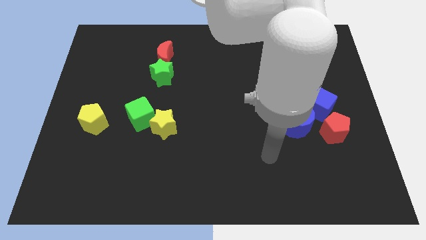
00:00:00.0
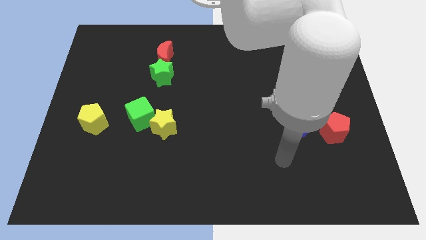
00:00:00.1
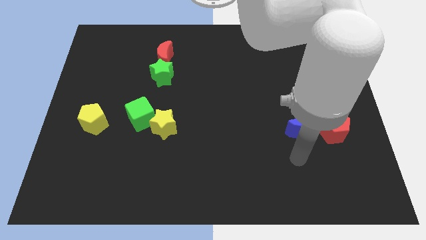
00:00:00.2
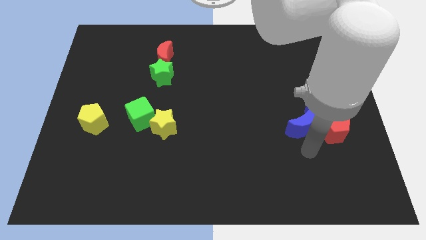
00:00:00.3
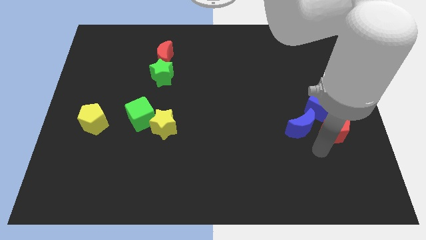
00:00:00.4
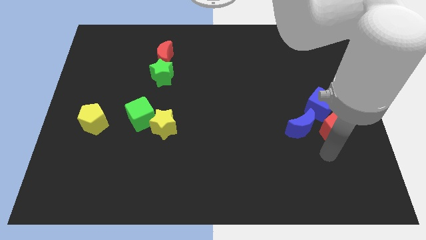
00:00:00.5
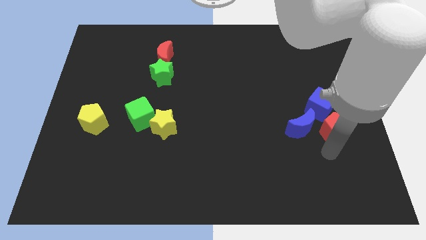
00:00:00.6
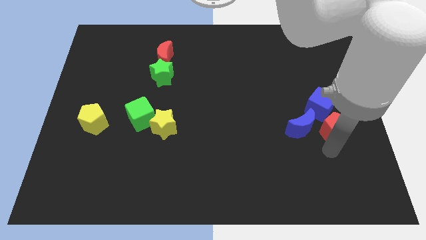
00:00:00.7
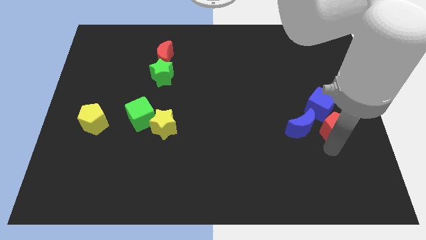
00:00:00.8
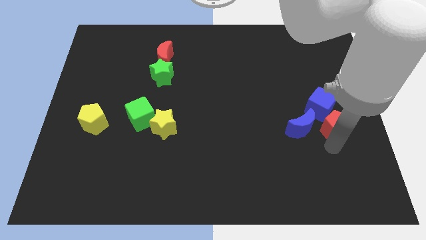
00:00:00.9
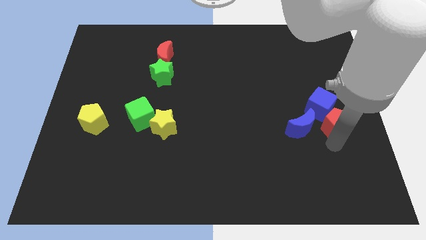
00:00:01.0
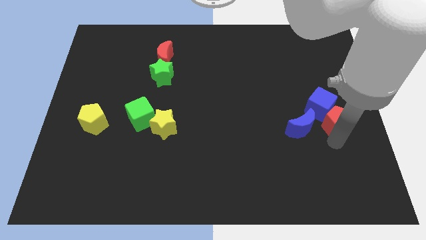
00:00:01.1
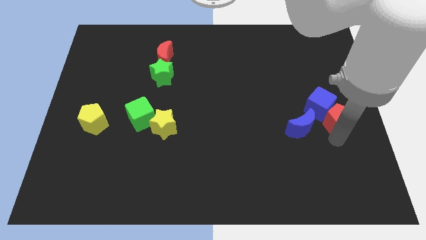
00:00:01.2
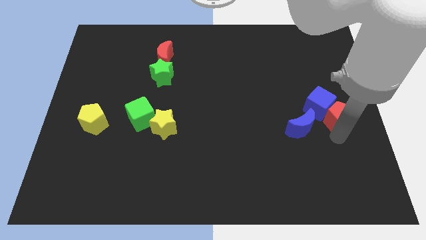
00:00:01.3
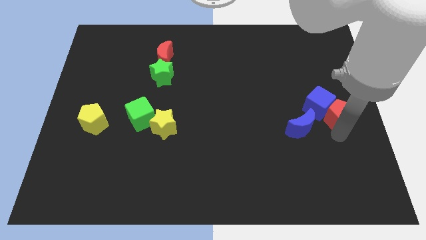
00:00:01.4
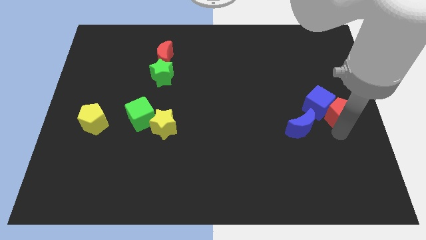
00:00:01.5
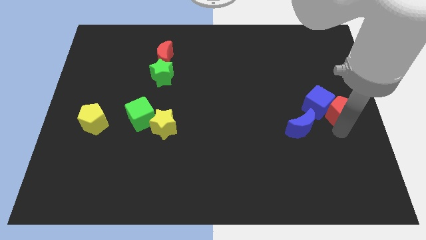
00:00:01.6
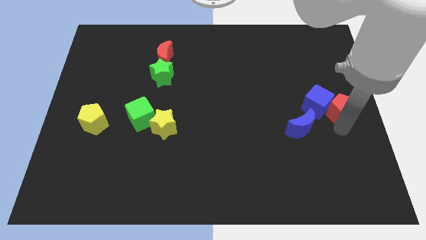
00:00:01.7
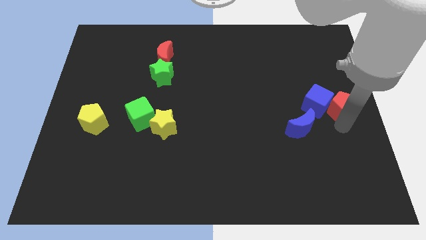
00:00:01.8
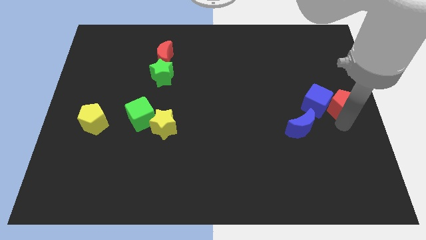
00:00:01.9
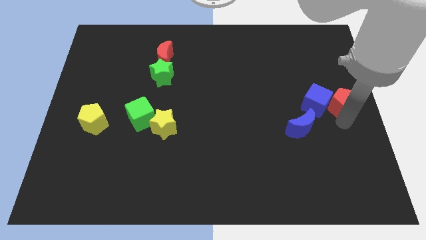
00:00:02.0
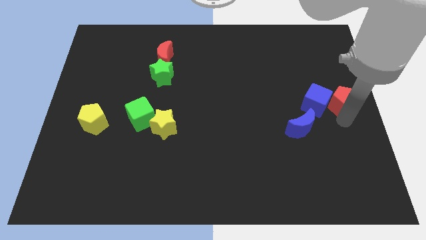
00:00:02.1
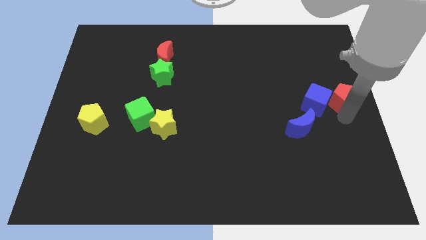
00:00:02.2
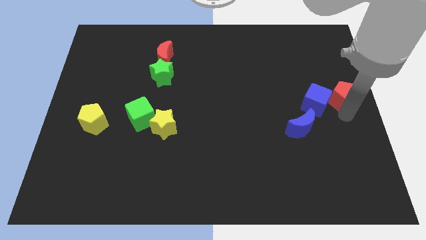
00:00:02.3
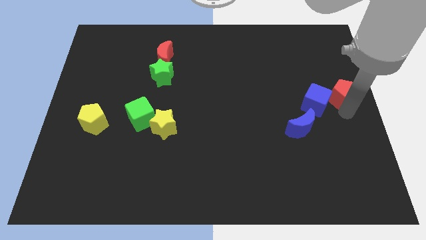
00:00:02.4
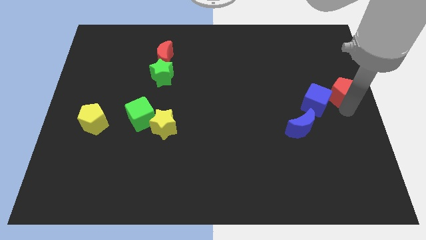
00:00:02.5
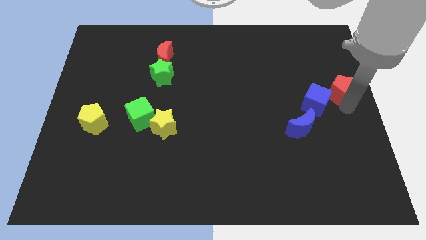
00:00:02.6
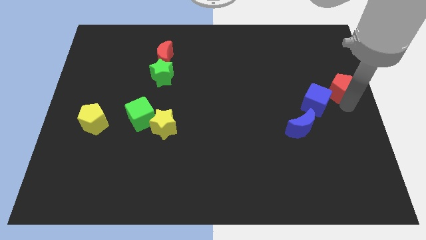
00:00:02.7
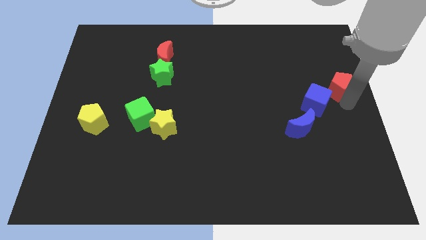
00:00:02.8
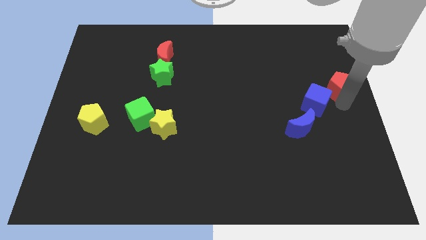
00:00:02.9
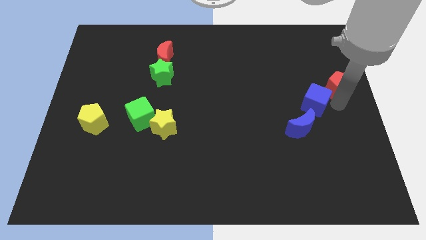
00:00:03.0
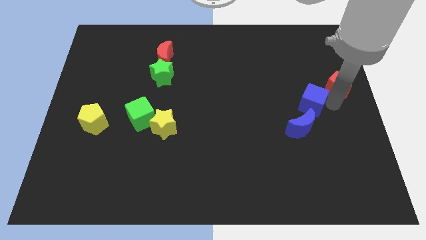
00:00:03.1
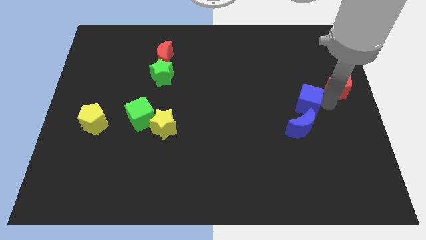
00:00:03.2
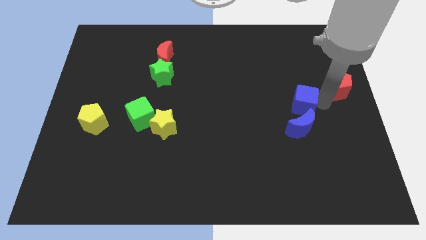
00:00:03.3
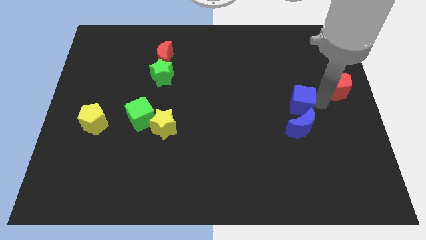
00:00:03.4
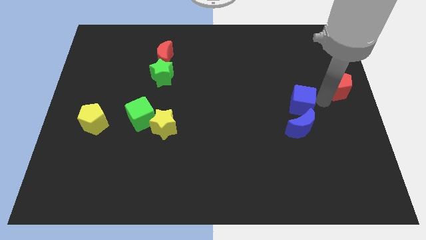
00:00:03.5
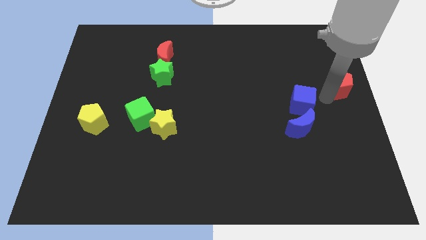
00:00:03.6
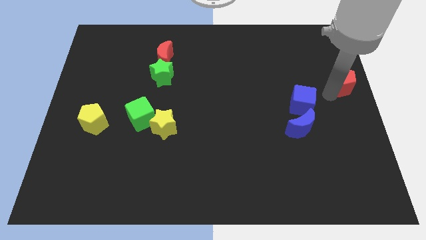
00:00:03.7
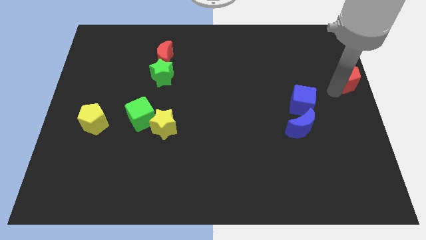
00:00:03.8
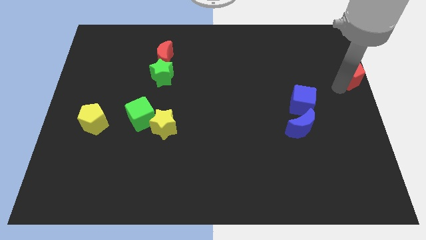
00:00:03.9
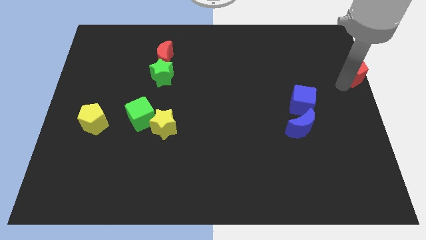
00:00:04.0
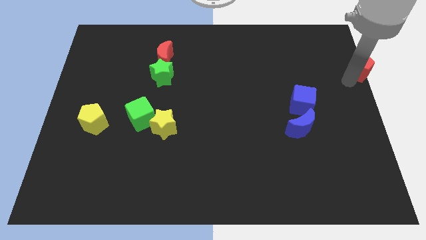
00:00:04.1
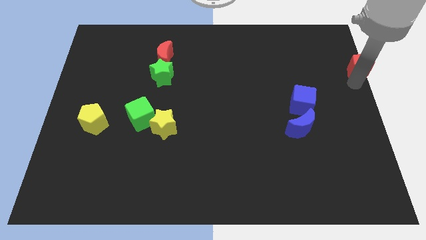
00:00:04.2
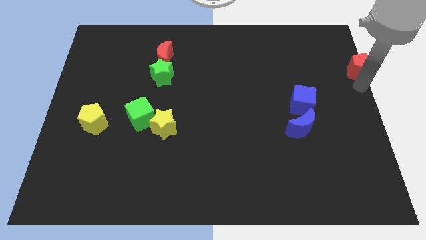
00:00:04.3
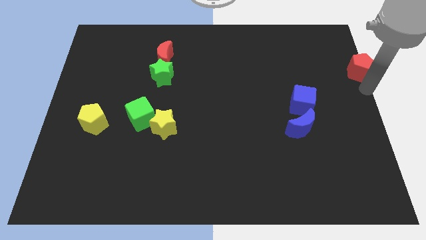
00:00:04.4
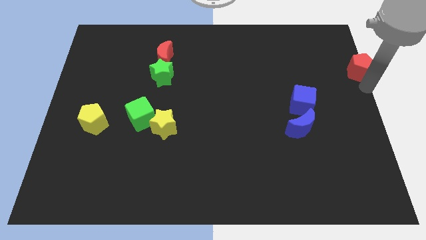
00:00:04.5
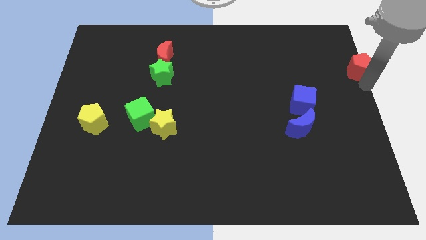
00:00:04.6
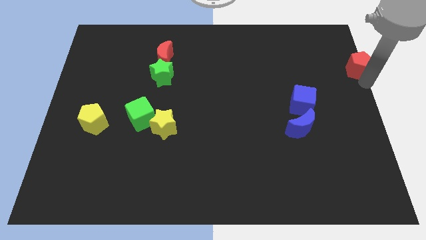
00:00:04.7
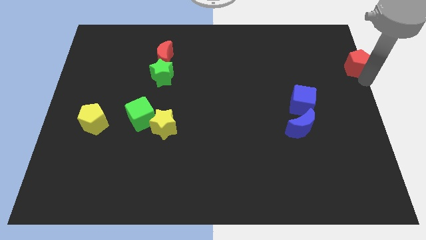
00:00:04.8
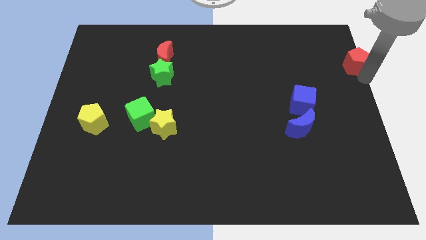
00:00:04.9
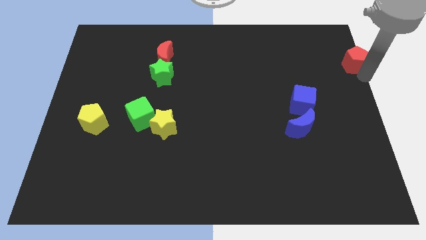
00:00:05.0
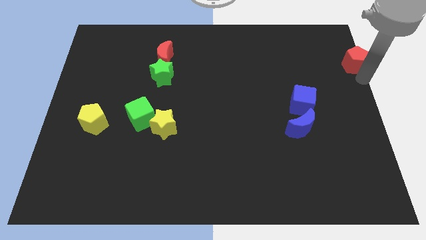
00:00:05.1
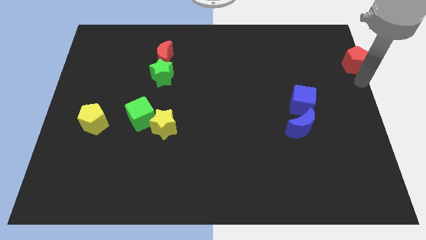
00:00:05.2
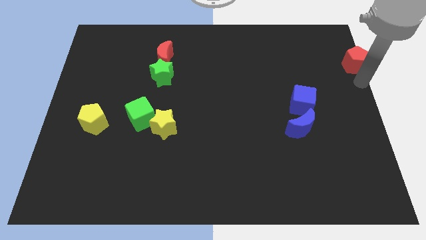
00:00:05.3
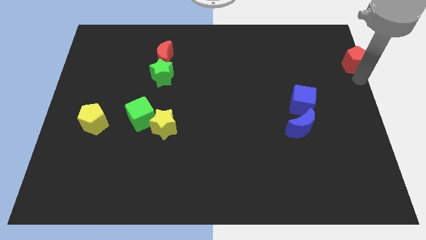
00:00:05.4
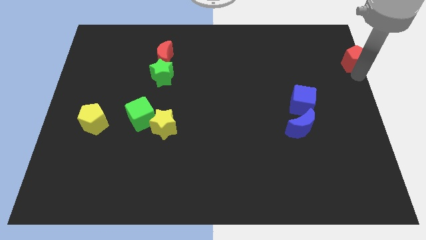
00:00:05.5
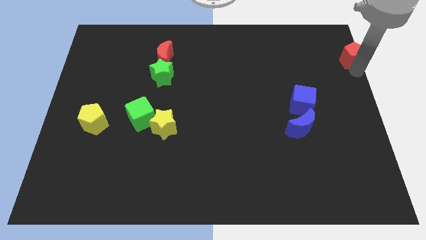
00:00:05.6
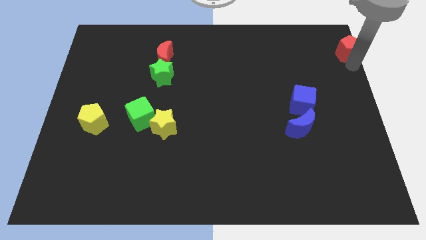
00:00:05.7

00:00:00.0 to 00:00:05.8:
put the red pentagon to the top right
